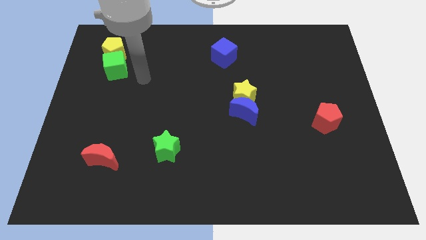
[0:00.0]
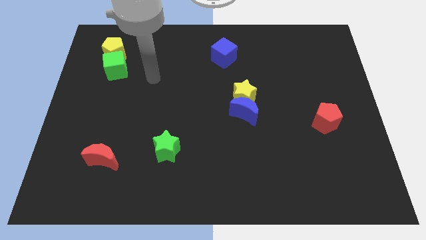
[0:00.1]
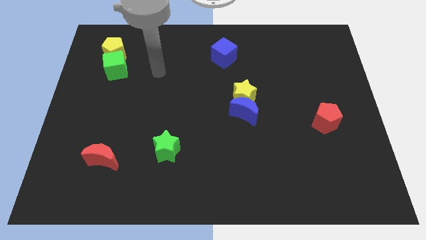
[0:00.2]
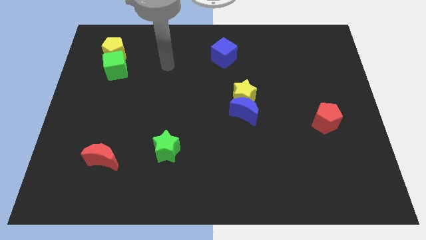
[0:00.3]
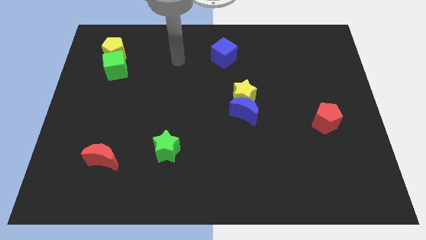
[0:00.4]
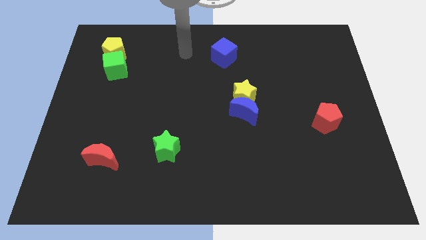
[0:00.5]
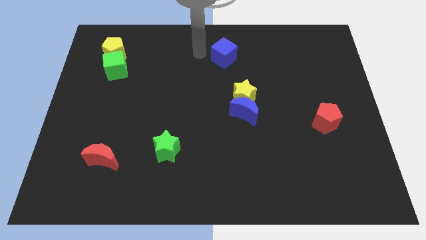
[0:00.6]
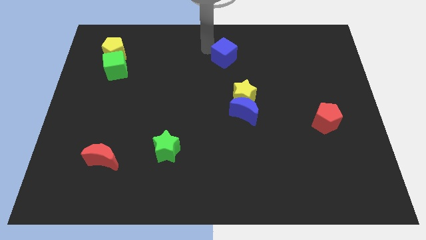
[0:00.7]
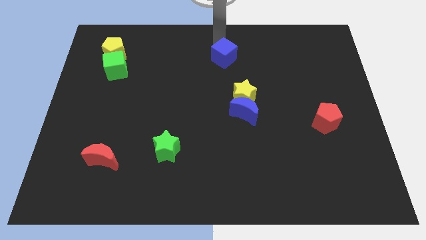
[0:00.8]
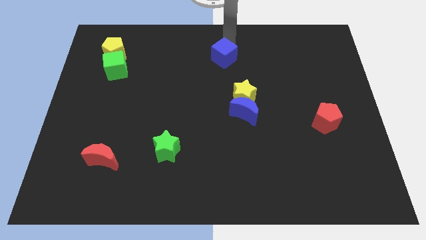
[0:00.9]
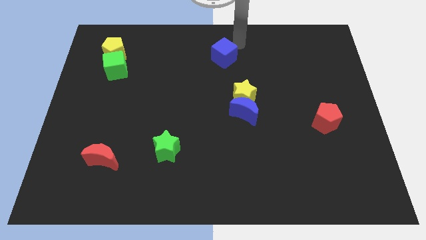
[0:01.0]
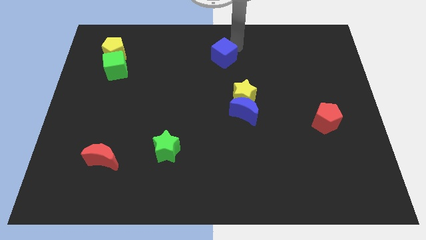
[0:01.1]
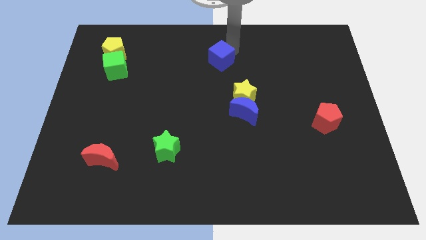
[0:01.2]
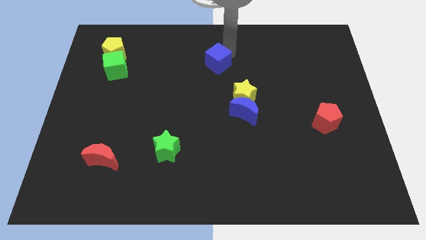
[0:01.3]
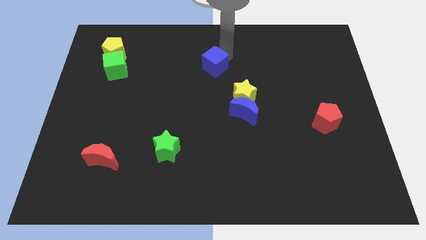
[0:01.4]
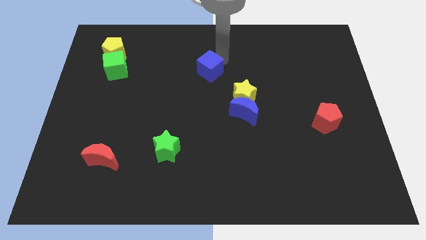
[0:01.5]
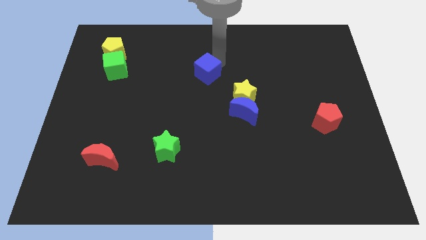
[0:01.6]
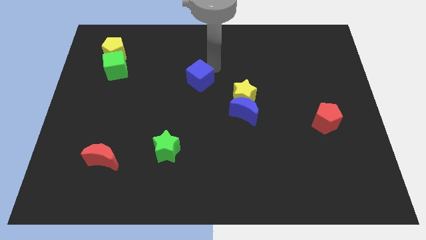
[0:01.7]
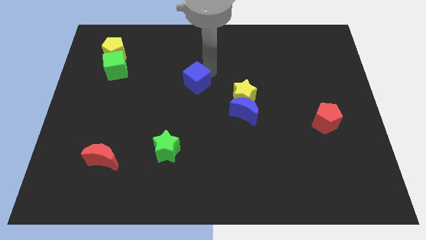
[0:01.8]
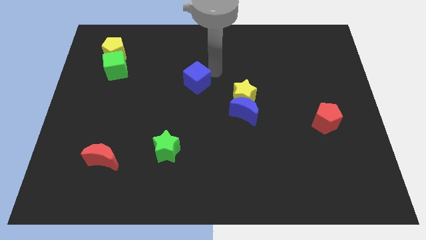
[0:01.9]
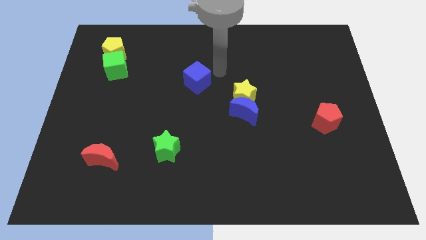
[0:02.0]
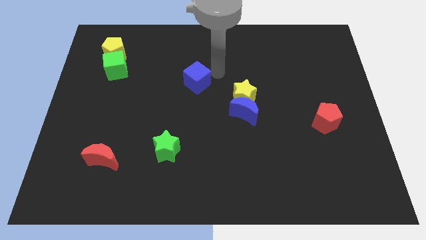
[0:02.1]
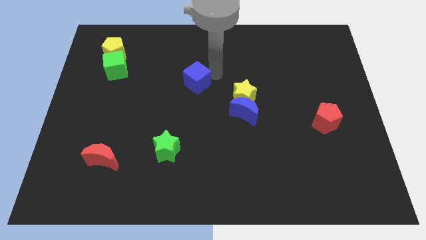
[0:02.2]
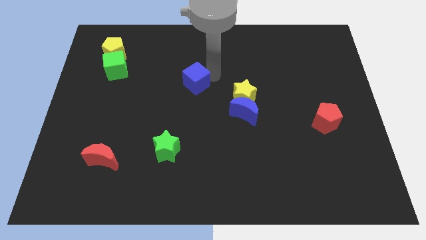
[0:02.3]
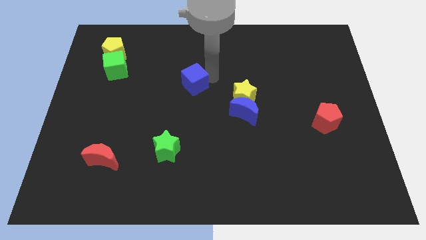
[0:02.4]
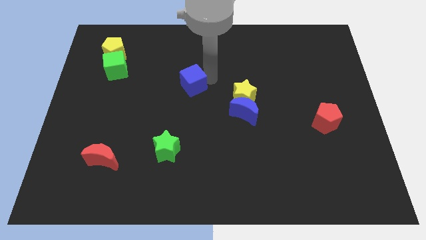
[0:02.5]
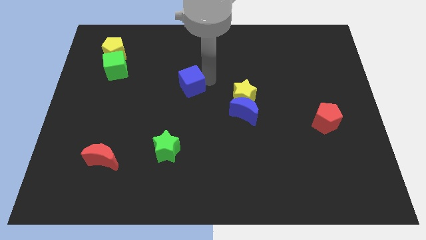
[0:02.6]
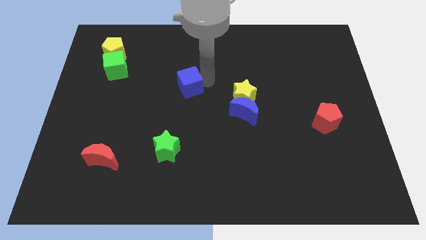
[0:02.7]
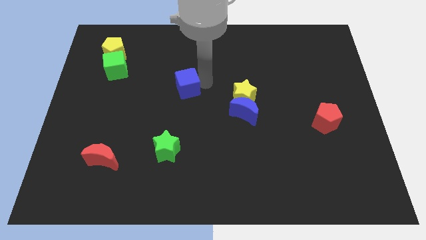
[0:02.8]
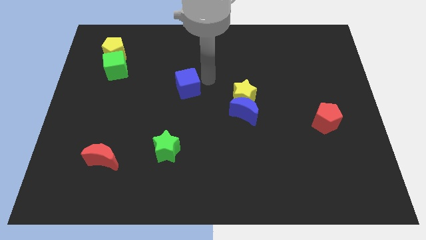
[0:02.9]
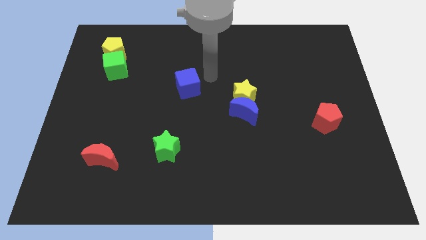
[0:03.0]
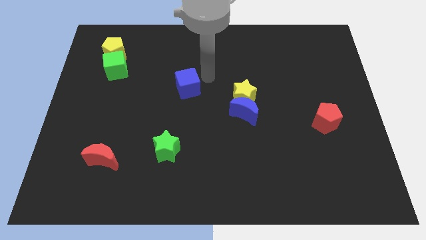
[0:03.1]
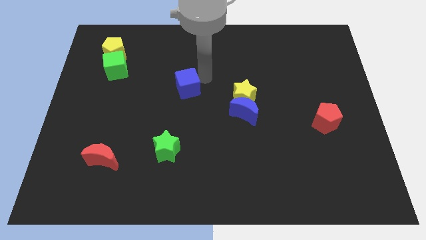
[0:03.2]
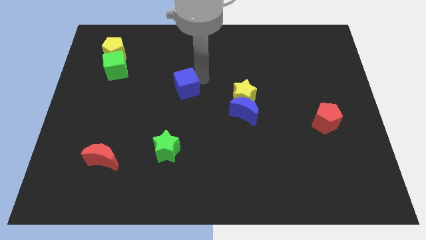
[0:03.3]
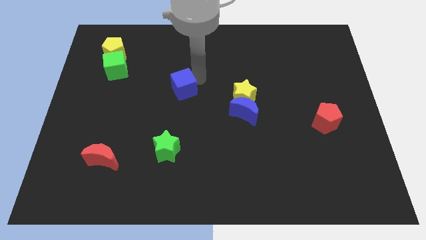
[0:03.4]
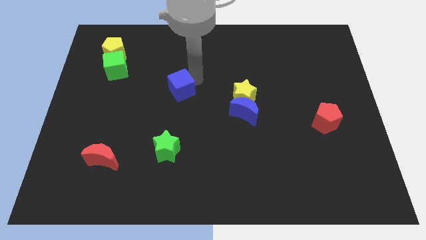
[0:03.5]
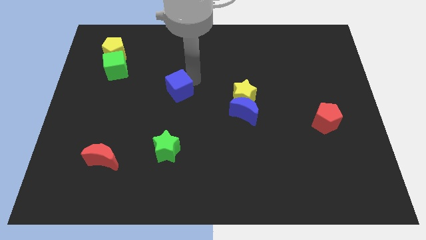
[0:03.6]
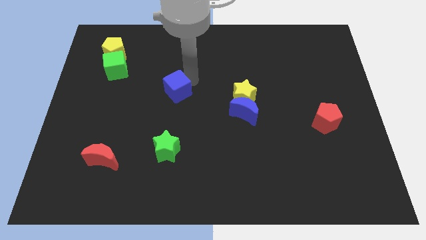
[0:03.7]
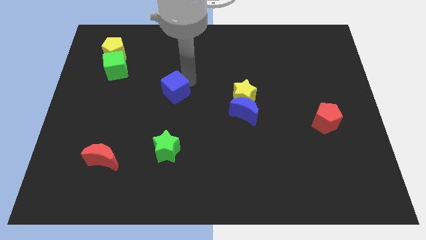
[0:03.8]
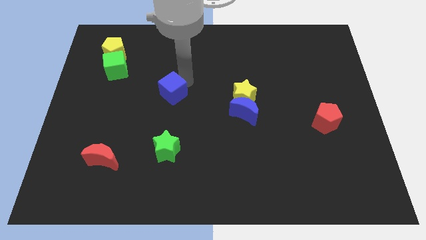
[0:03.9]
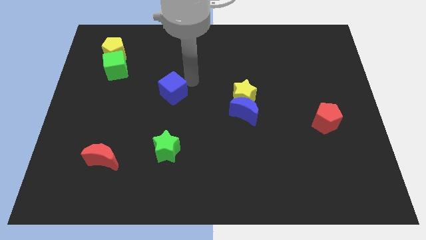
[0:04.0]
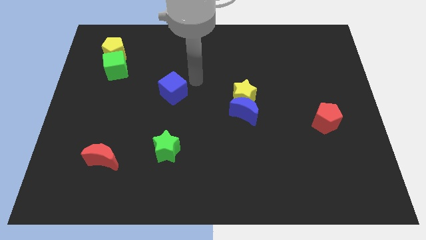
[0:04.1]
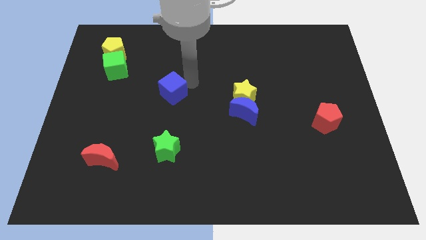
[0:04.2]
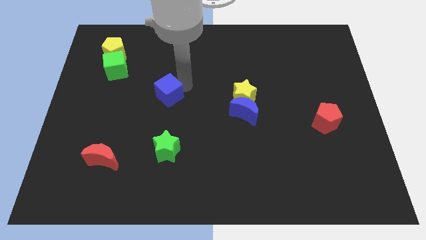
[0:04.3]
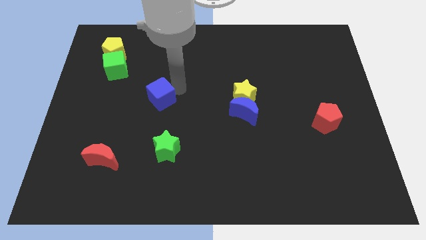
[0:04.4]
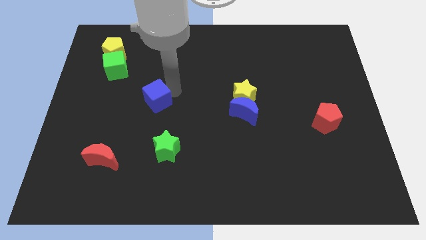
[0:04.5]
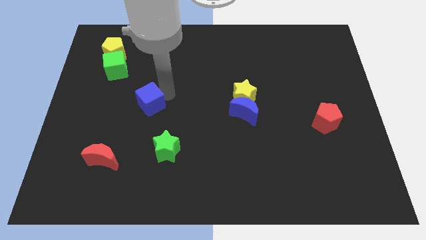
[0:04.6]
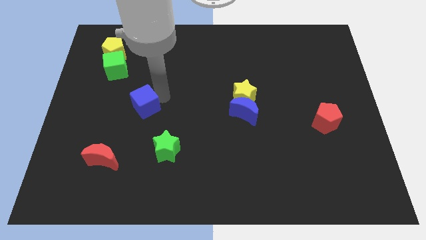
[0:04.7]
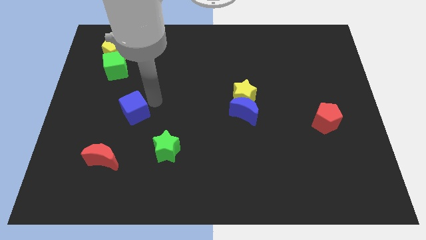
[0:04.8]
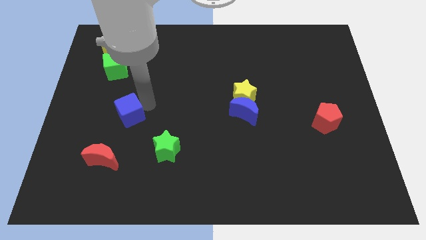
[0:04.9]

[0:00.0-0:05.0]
move the blue cube to the top side of the red moon

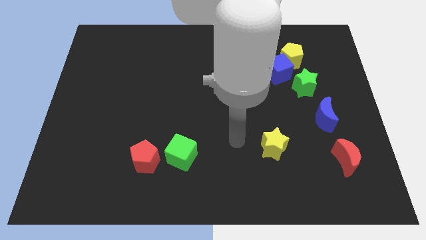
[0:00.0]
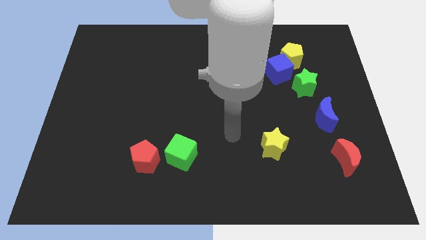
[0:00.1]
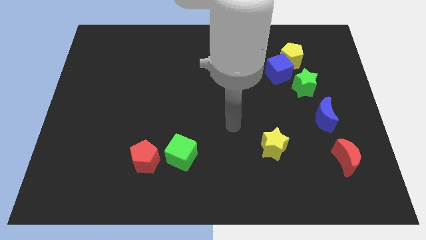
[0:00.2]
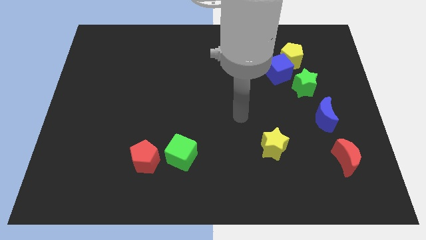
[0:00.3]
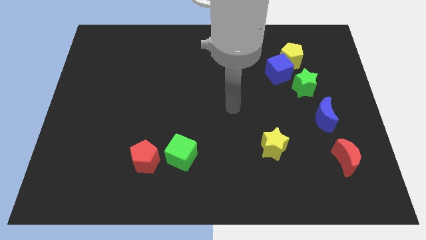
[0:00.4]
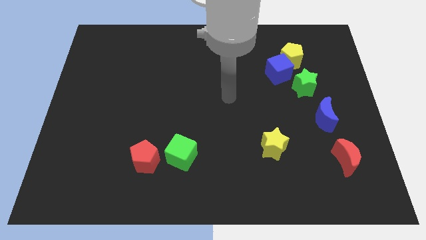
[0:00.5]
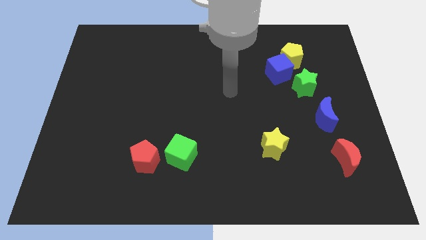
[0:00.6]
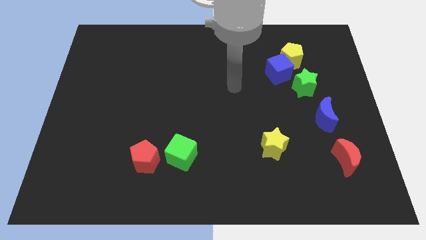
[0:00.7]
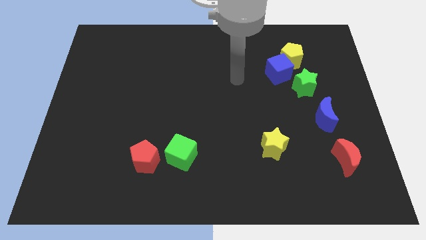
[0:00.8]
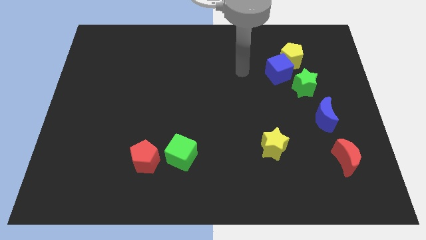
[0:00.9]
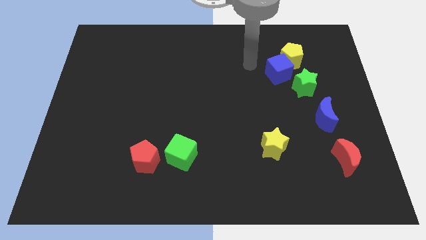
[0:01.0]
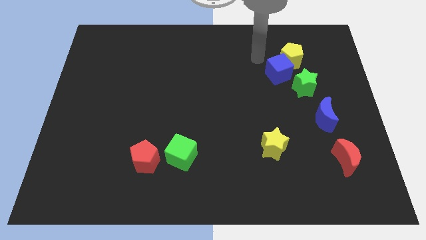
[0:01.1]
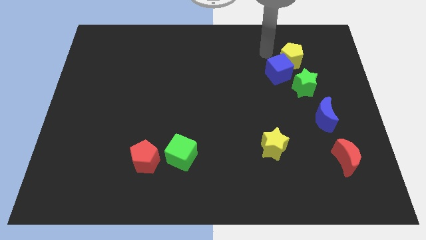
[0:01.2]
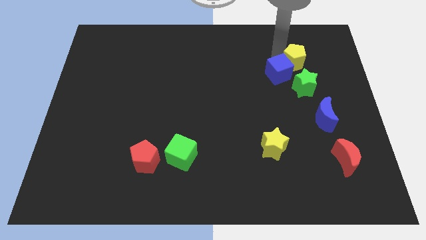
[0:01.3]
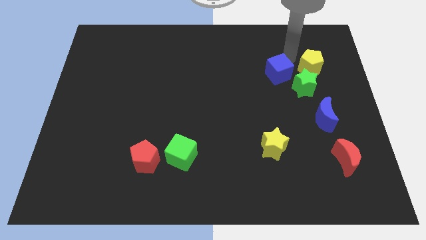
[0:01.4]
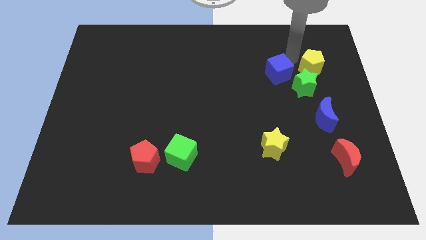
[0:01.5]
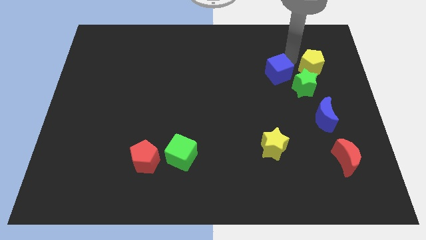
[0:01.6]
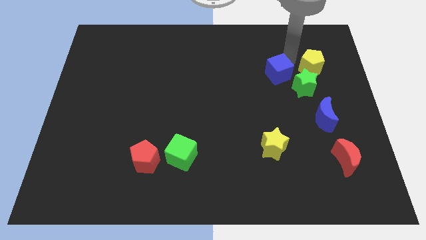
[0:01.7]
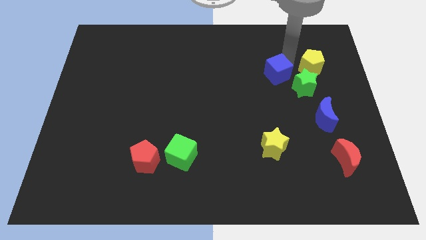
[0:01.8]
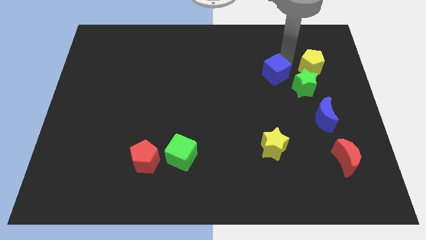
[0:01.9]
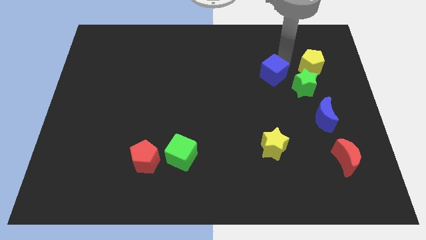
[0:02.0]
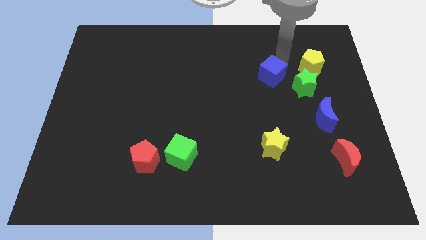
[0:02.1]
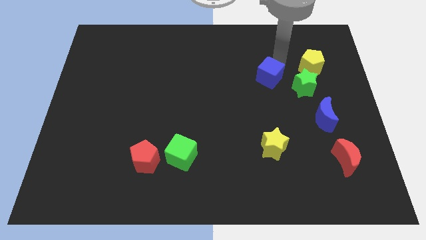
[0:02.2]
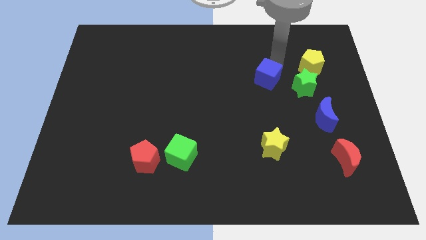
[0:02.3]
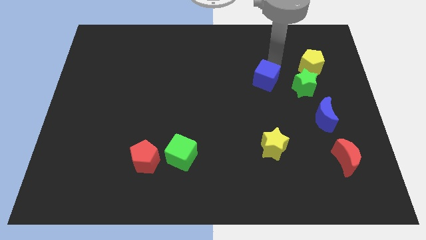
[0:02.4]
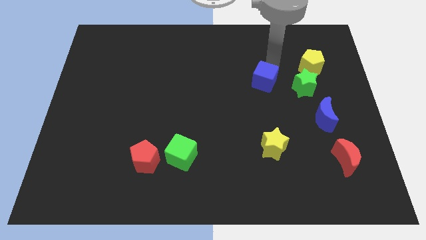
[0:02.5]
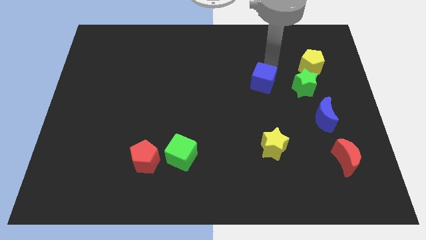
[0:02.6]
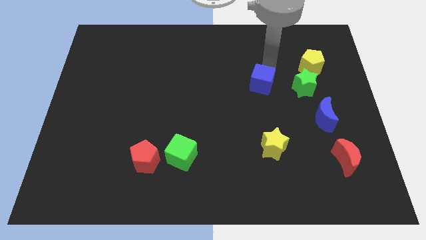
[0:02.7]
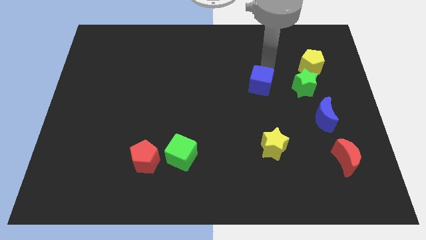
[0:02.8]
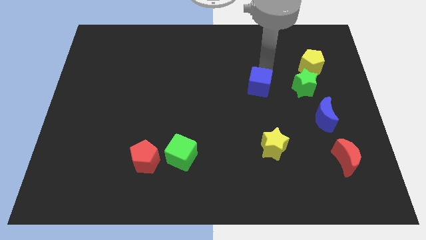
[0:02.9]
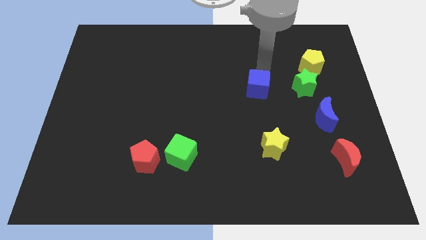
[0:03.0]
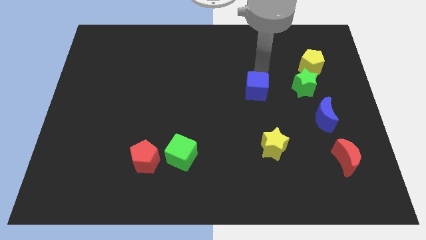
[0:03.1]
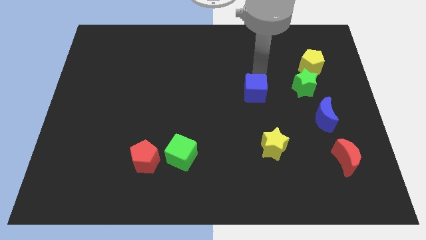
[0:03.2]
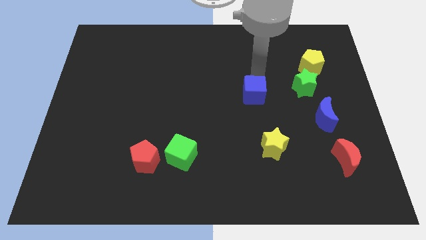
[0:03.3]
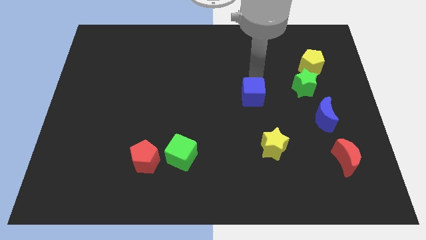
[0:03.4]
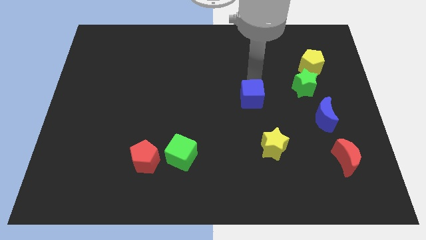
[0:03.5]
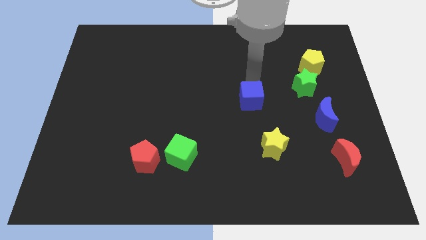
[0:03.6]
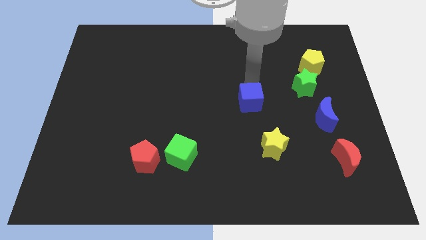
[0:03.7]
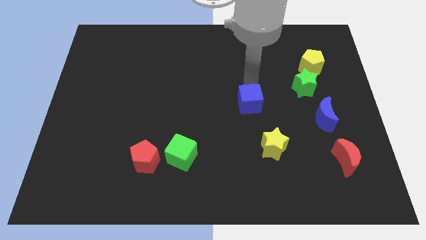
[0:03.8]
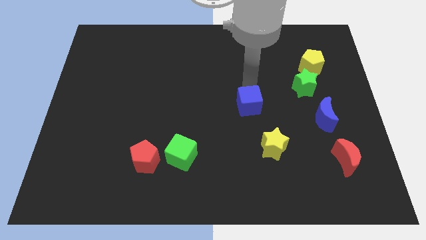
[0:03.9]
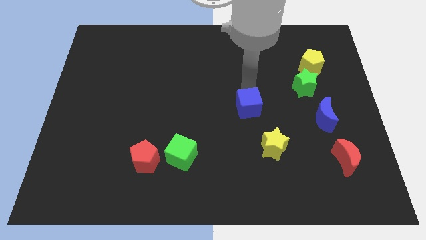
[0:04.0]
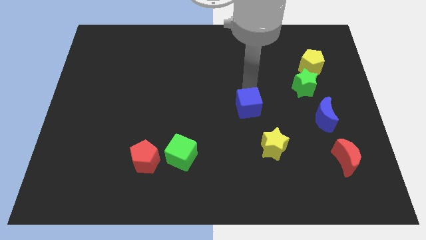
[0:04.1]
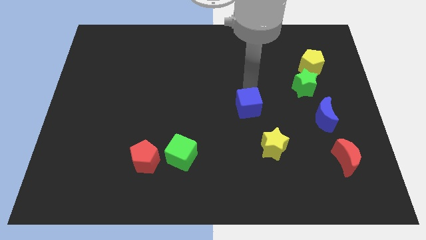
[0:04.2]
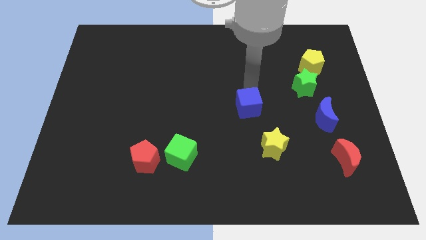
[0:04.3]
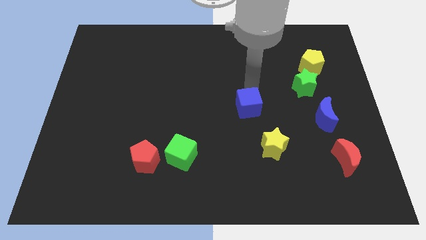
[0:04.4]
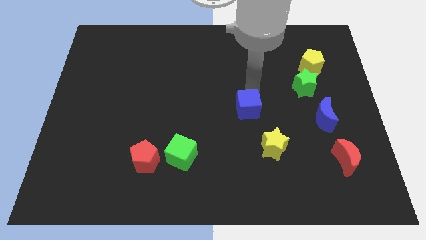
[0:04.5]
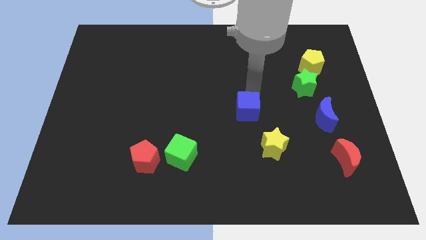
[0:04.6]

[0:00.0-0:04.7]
move the blue cube to the top left side of the yellow star
